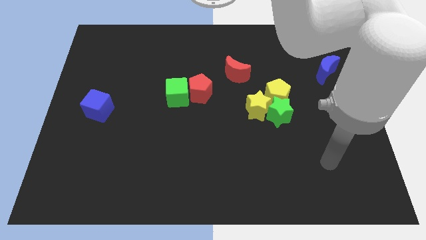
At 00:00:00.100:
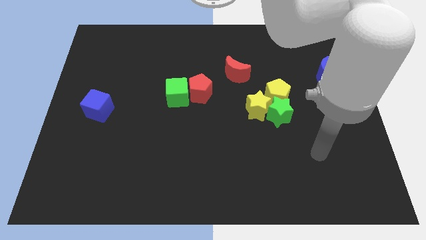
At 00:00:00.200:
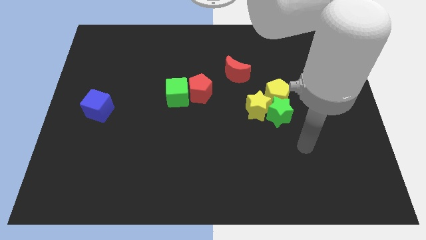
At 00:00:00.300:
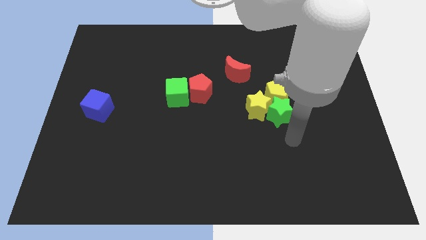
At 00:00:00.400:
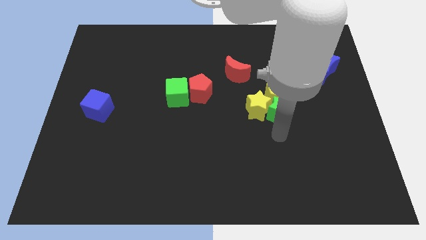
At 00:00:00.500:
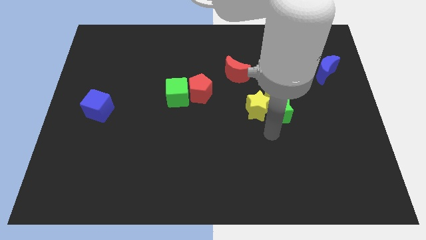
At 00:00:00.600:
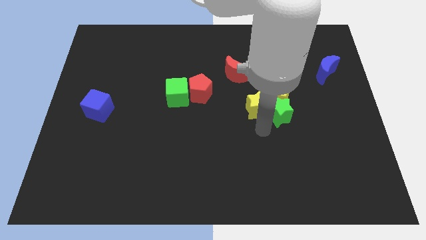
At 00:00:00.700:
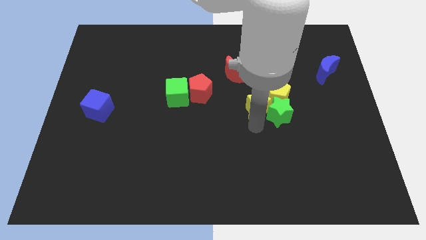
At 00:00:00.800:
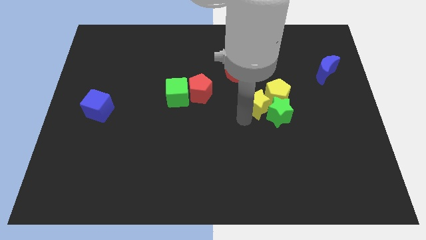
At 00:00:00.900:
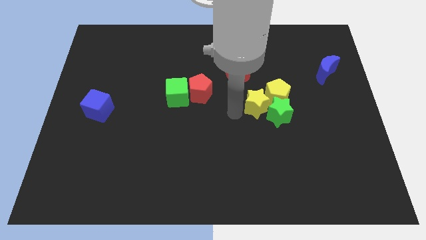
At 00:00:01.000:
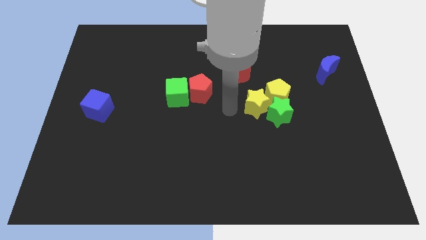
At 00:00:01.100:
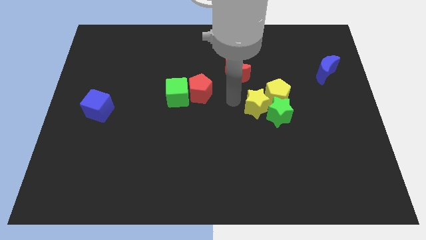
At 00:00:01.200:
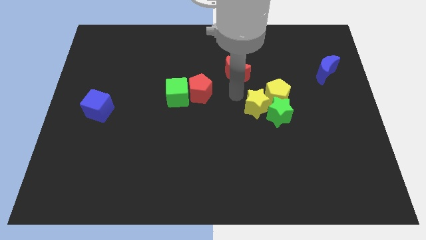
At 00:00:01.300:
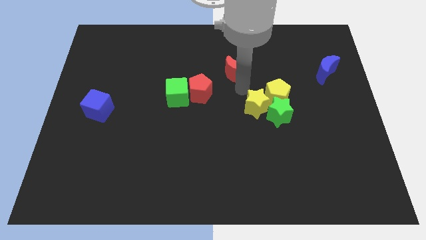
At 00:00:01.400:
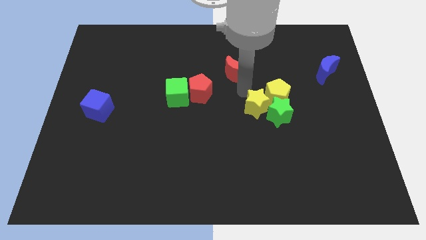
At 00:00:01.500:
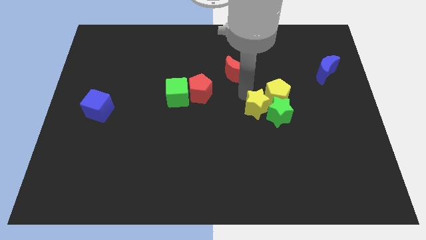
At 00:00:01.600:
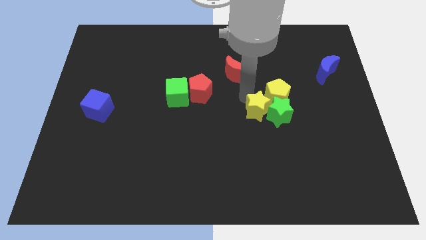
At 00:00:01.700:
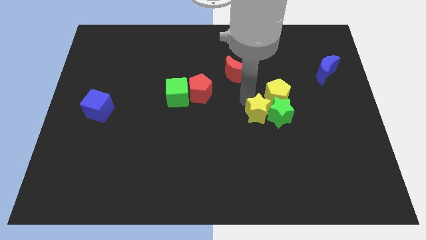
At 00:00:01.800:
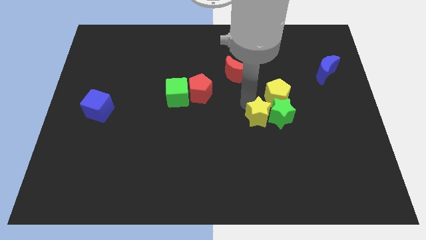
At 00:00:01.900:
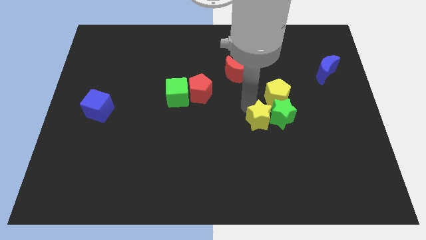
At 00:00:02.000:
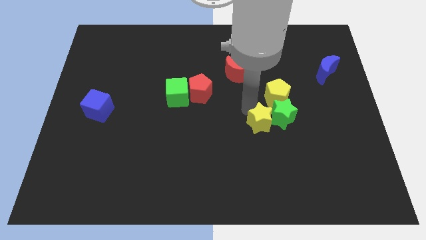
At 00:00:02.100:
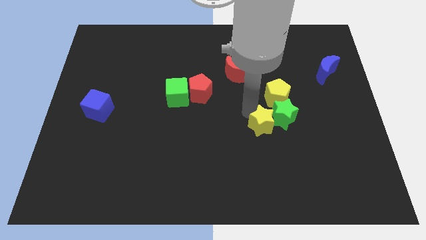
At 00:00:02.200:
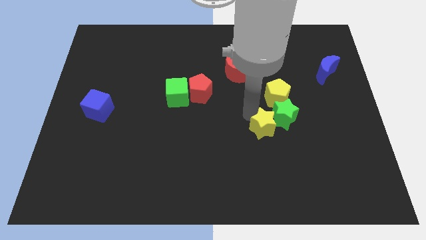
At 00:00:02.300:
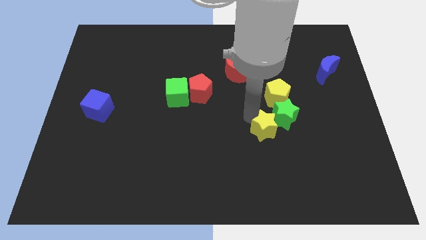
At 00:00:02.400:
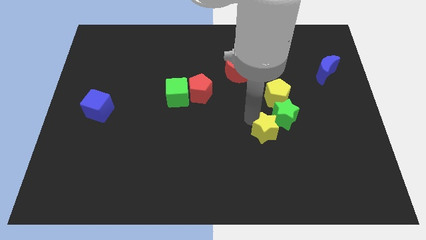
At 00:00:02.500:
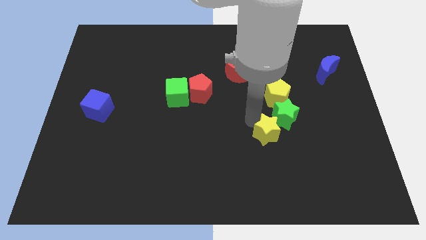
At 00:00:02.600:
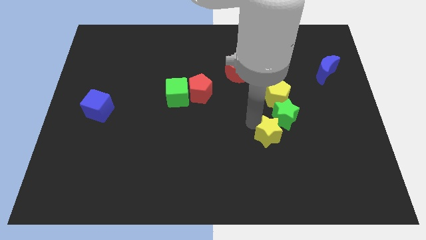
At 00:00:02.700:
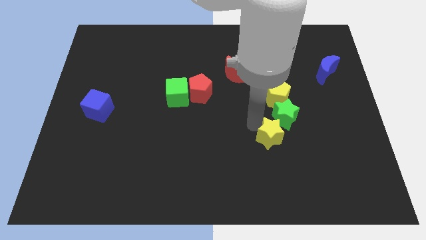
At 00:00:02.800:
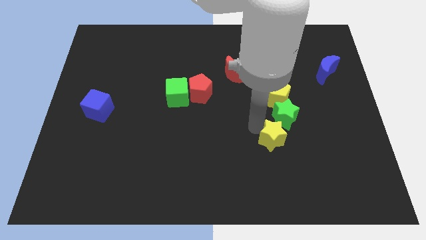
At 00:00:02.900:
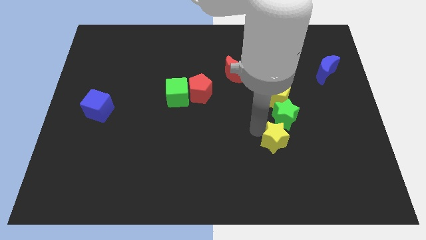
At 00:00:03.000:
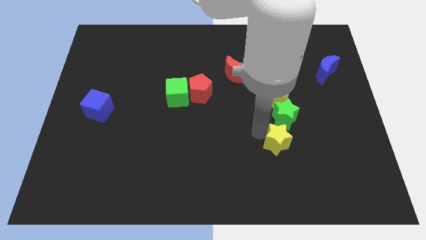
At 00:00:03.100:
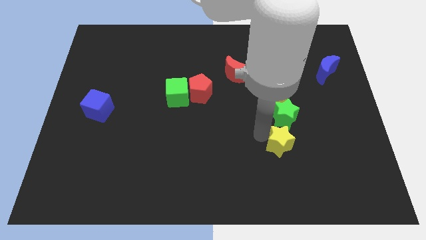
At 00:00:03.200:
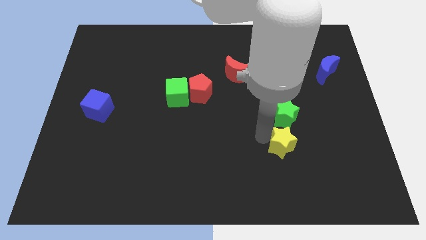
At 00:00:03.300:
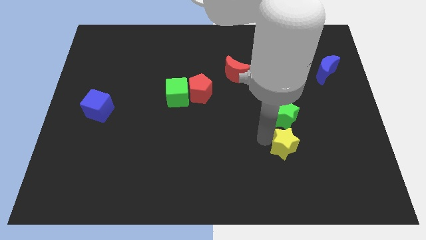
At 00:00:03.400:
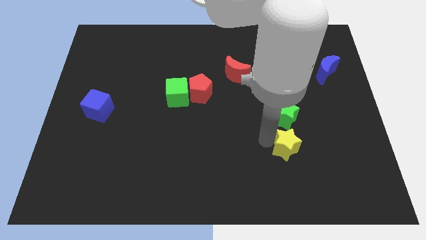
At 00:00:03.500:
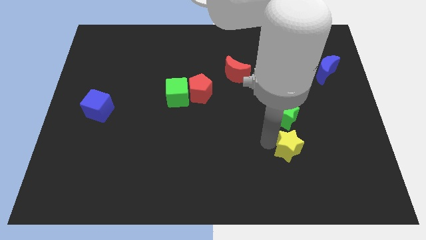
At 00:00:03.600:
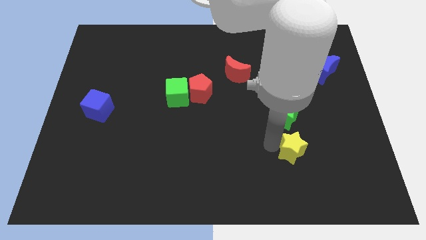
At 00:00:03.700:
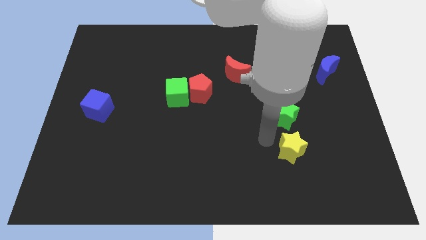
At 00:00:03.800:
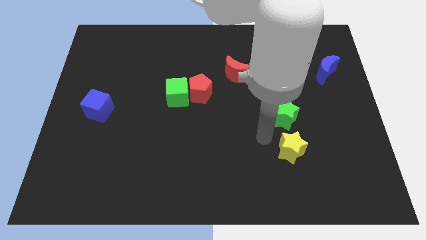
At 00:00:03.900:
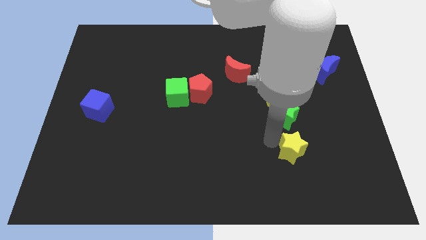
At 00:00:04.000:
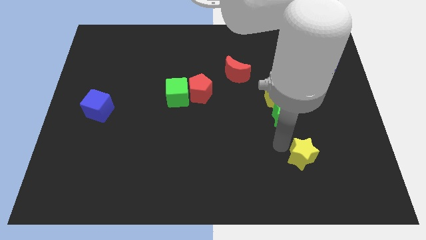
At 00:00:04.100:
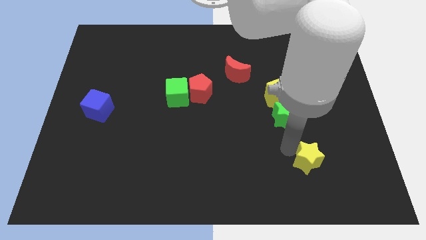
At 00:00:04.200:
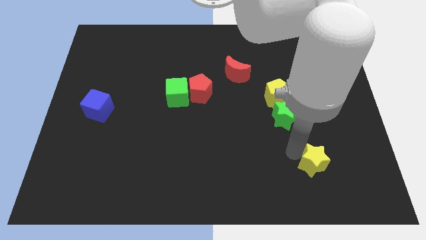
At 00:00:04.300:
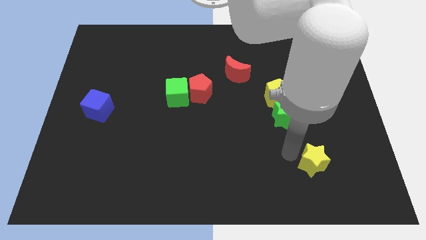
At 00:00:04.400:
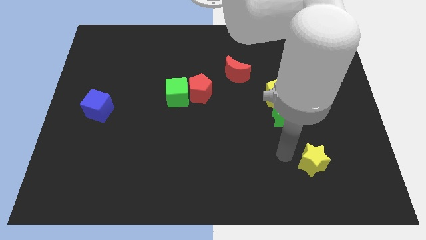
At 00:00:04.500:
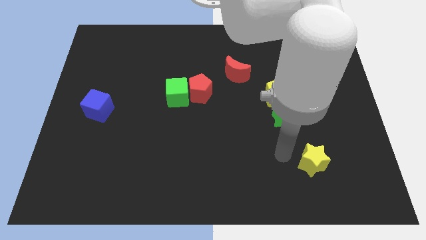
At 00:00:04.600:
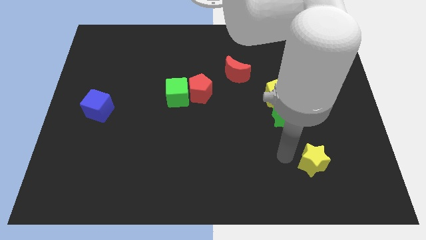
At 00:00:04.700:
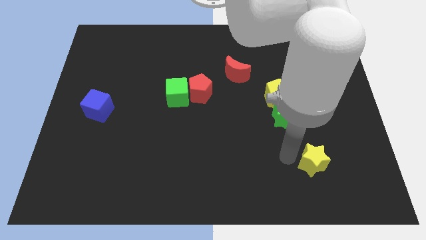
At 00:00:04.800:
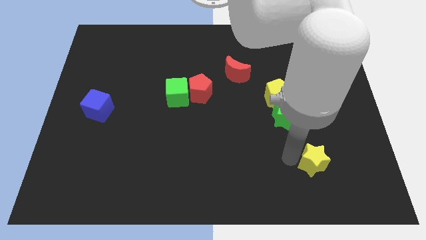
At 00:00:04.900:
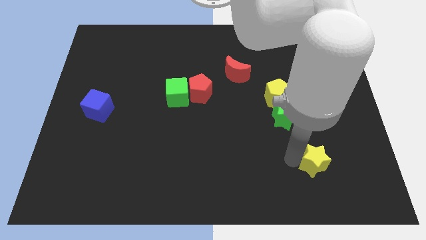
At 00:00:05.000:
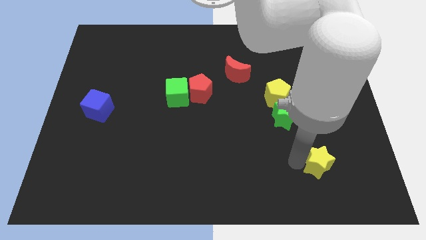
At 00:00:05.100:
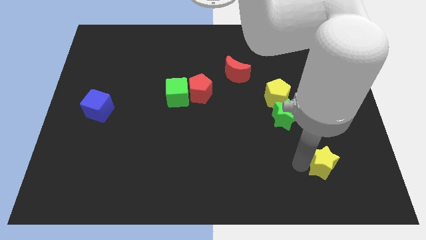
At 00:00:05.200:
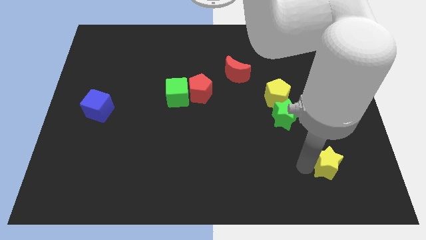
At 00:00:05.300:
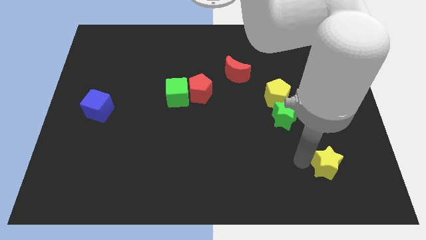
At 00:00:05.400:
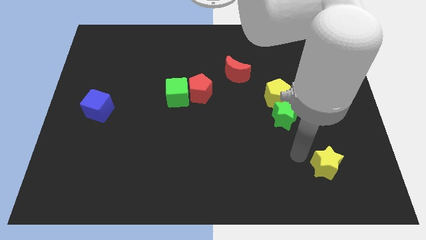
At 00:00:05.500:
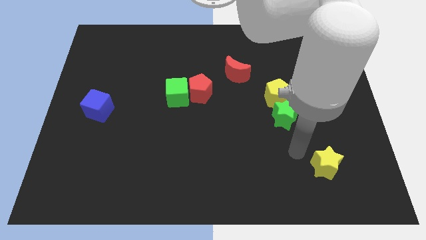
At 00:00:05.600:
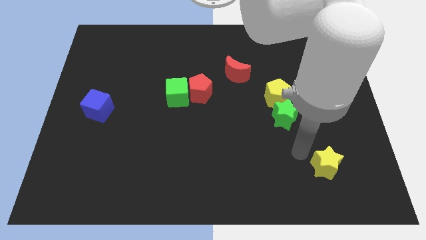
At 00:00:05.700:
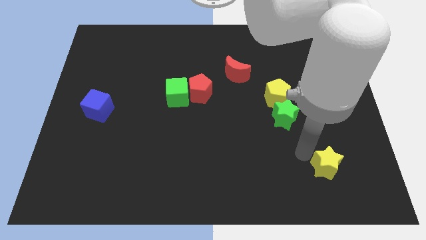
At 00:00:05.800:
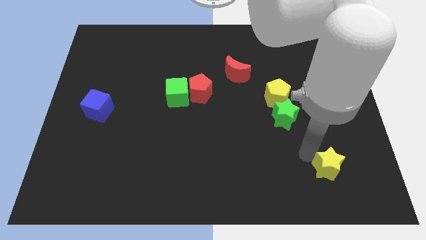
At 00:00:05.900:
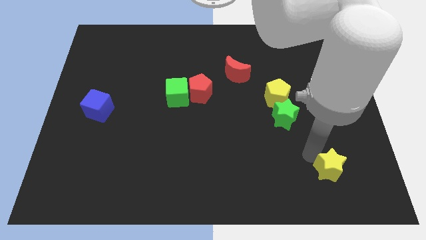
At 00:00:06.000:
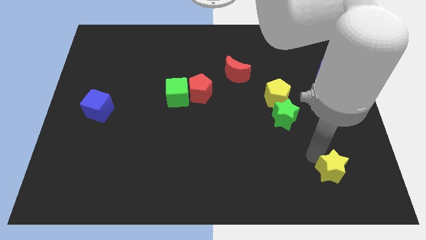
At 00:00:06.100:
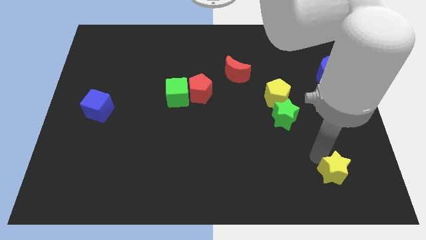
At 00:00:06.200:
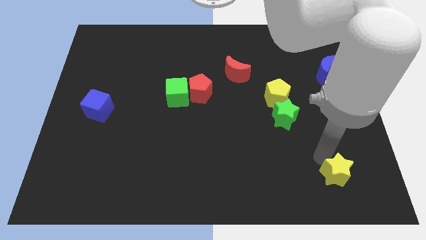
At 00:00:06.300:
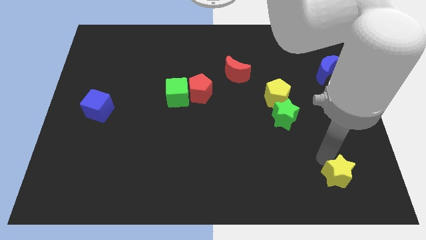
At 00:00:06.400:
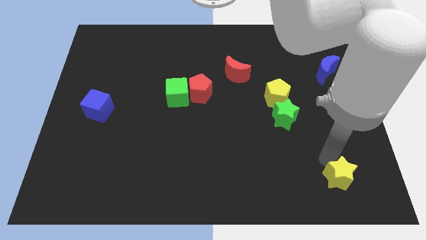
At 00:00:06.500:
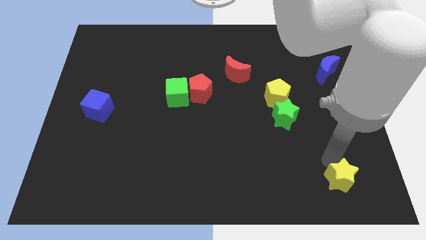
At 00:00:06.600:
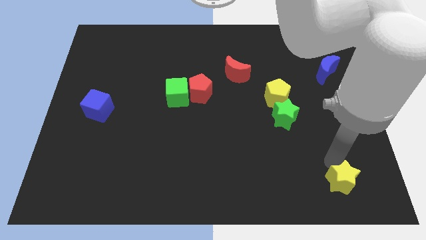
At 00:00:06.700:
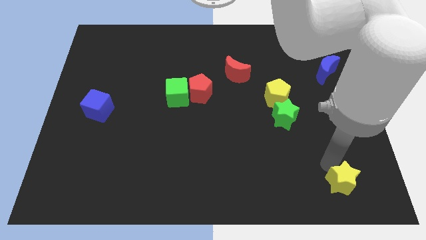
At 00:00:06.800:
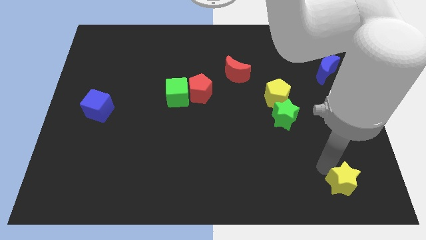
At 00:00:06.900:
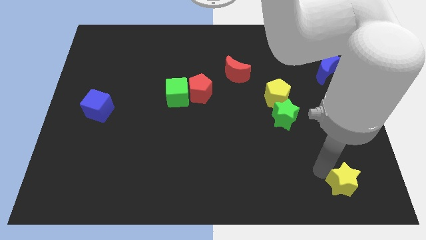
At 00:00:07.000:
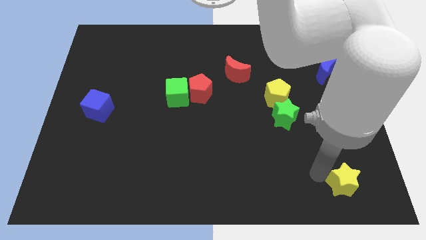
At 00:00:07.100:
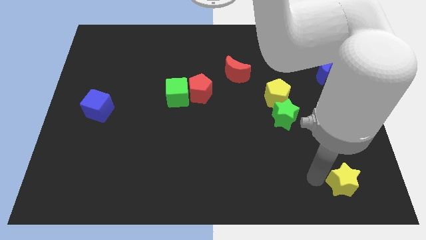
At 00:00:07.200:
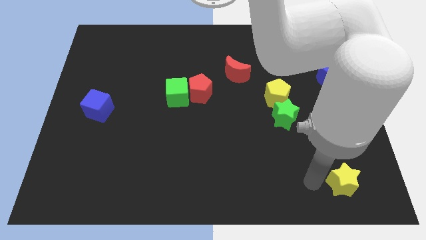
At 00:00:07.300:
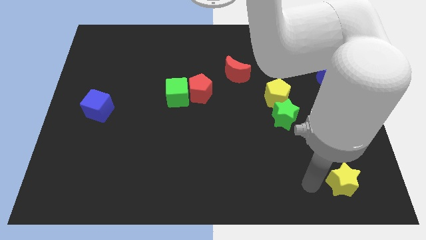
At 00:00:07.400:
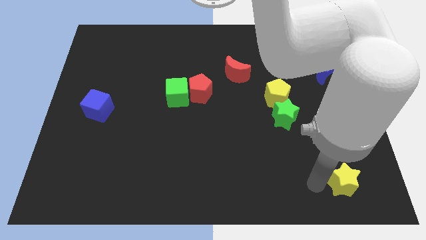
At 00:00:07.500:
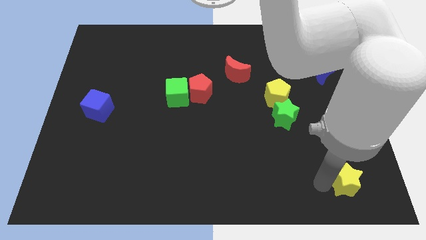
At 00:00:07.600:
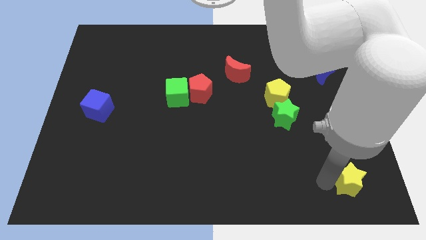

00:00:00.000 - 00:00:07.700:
slide the yellow star to the bottom right
